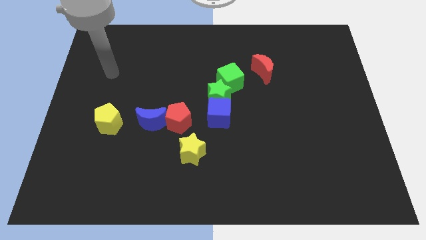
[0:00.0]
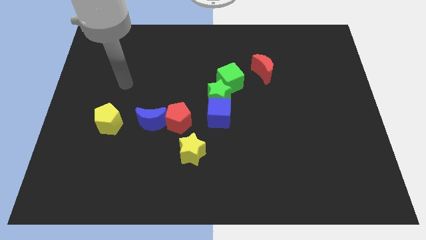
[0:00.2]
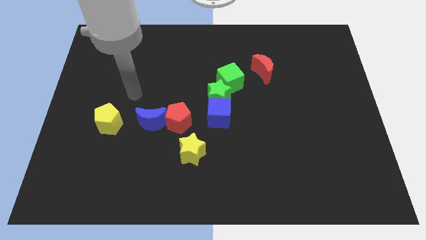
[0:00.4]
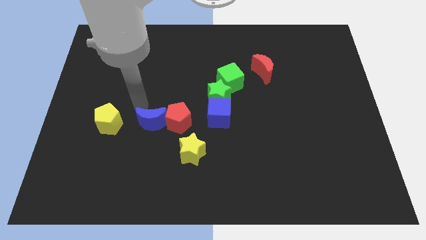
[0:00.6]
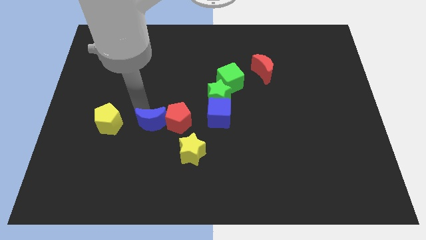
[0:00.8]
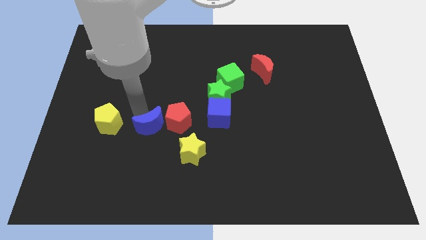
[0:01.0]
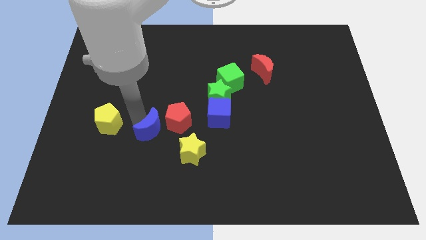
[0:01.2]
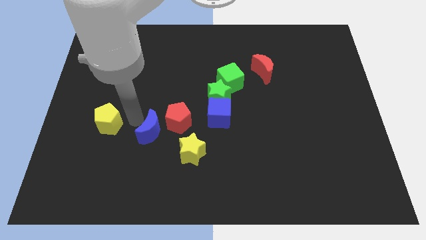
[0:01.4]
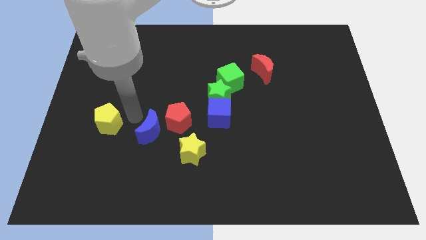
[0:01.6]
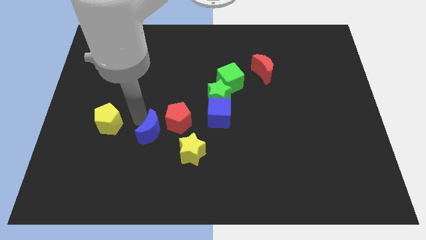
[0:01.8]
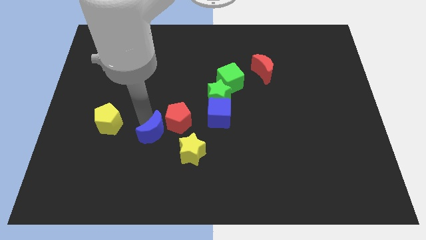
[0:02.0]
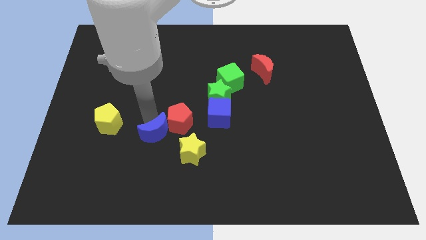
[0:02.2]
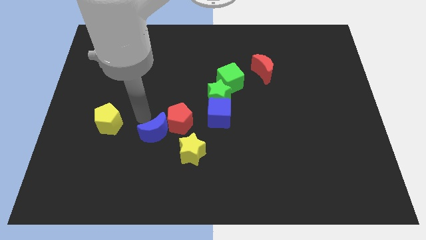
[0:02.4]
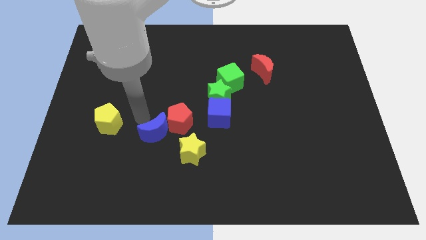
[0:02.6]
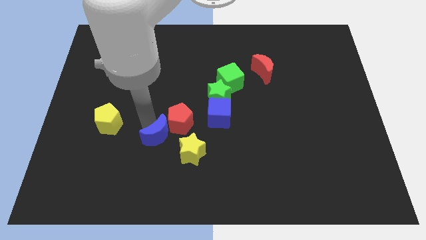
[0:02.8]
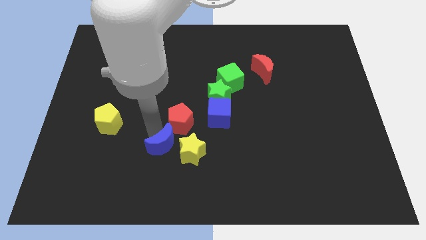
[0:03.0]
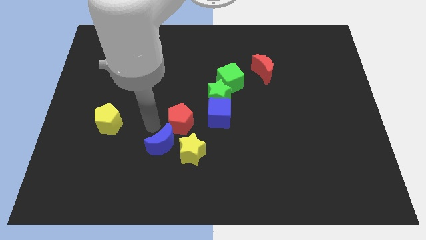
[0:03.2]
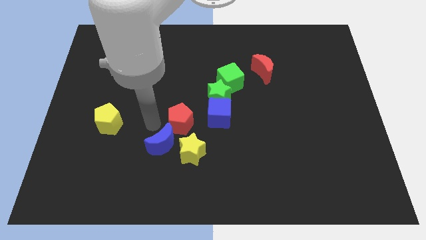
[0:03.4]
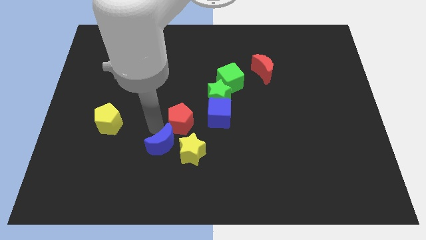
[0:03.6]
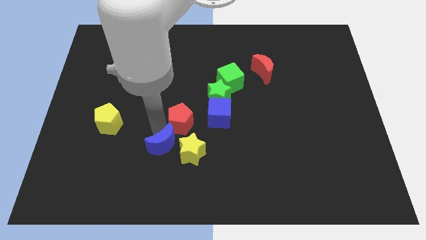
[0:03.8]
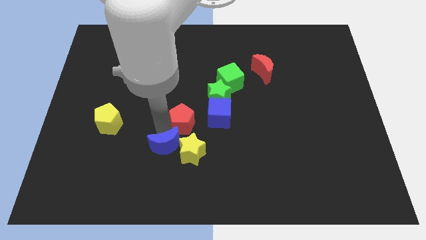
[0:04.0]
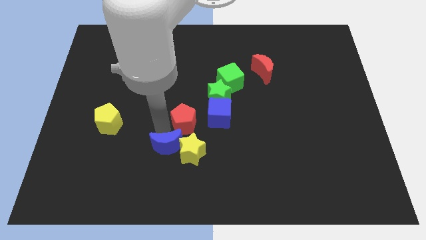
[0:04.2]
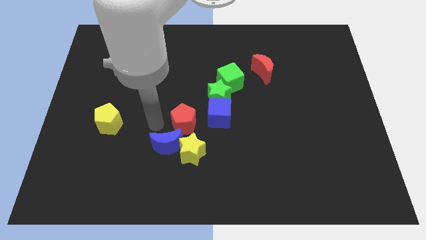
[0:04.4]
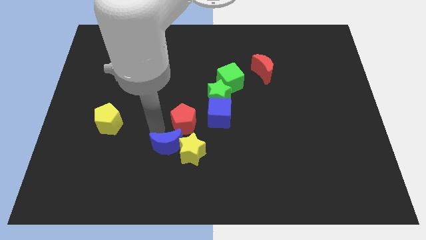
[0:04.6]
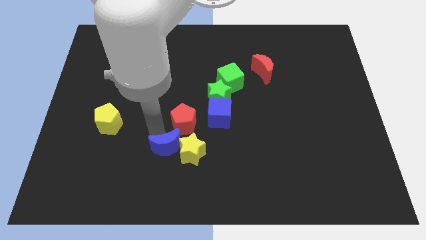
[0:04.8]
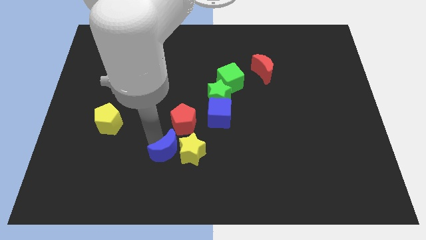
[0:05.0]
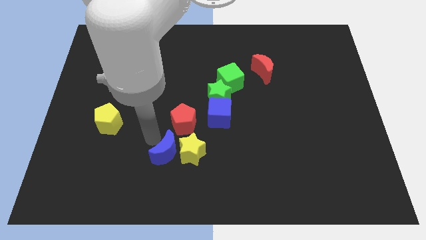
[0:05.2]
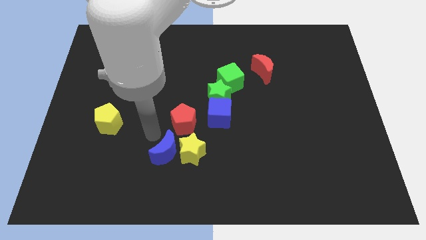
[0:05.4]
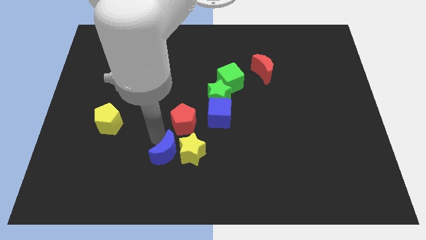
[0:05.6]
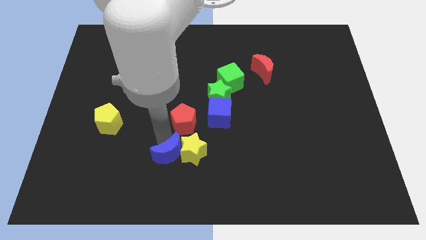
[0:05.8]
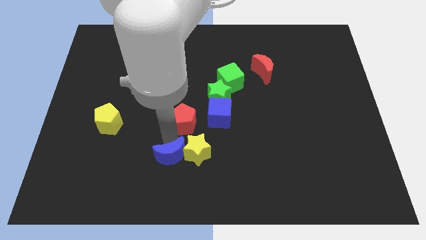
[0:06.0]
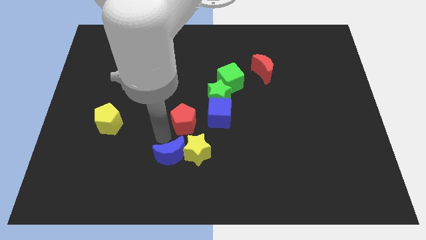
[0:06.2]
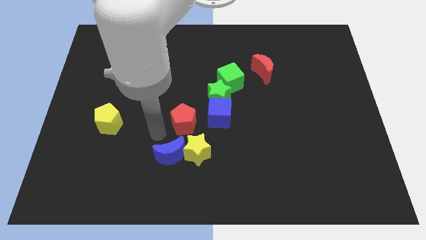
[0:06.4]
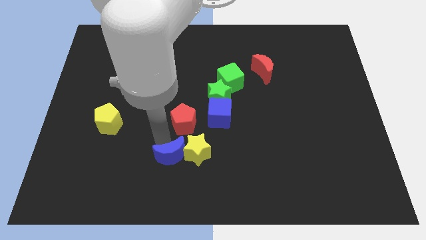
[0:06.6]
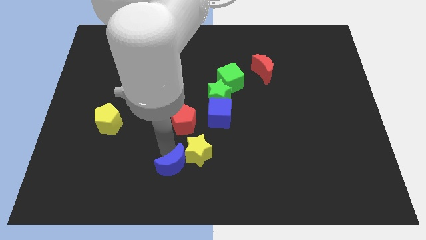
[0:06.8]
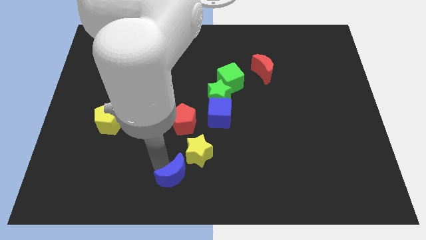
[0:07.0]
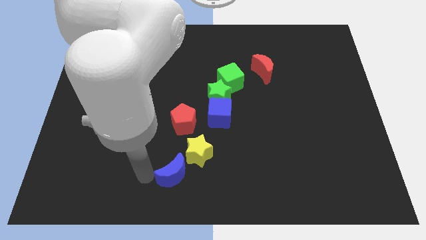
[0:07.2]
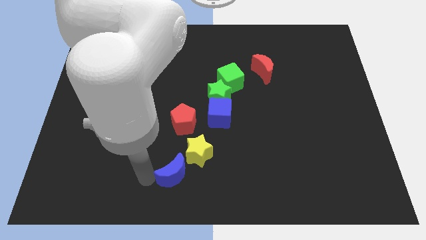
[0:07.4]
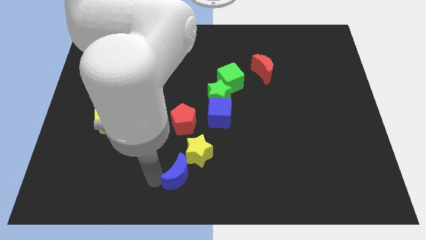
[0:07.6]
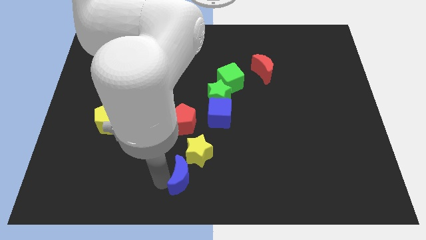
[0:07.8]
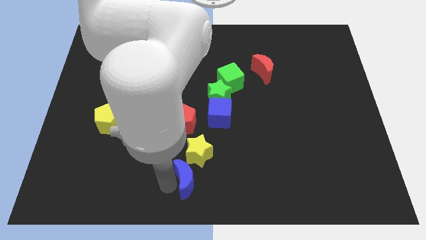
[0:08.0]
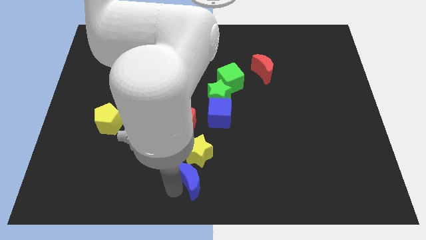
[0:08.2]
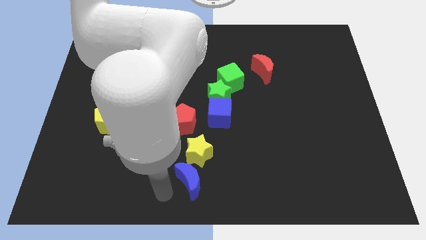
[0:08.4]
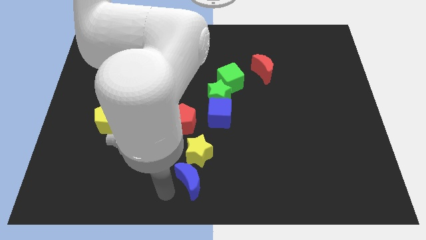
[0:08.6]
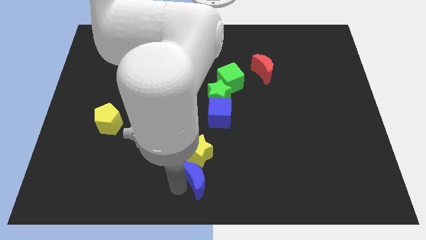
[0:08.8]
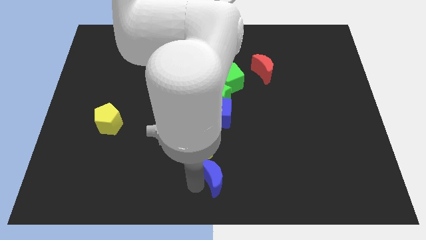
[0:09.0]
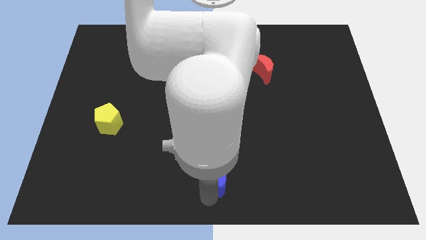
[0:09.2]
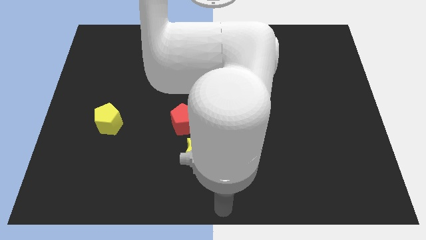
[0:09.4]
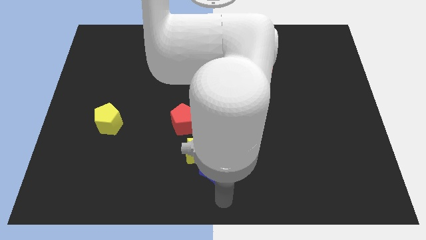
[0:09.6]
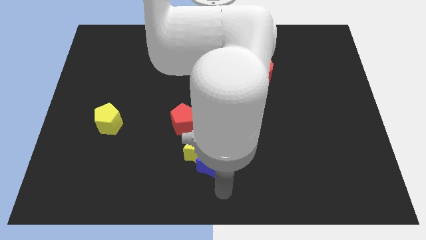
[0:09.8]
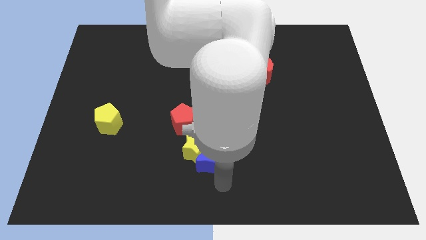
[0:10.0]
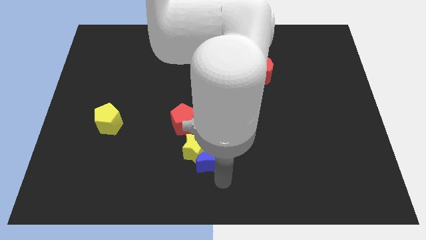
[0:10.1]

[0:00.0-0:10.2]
put the blue moon diagonally down and to the right of the red pentagon

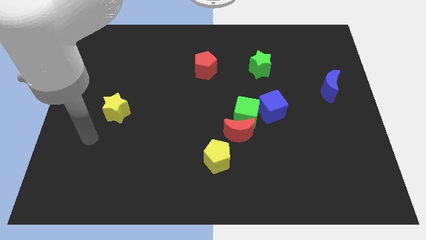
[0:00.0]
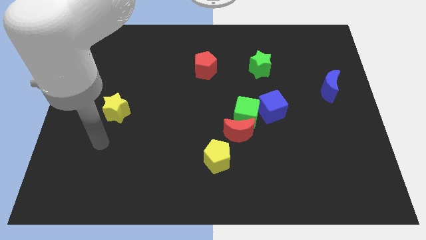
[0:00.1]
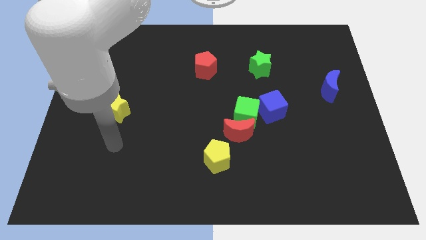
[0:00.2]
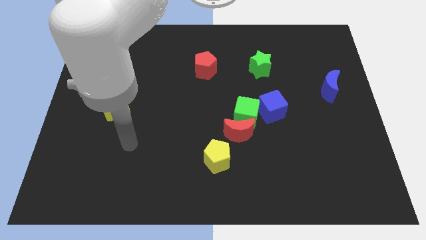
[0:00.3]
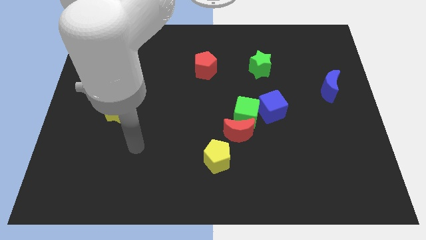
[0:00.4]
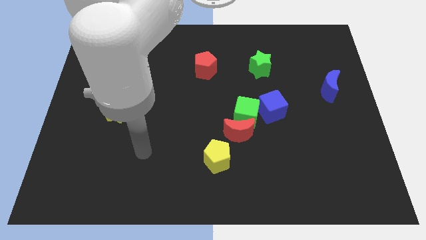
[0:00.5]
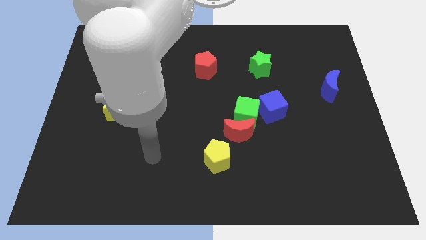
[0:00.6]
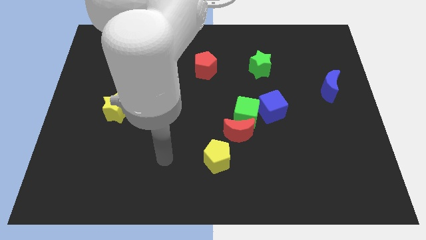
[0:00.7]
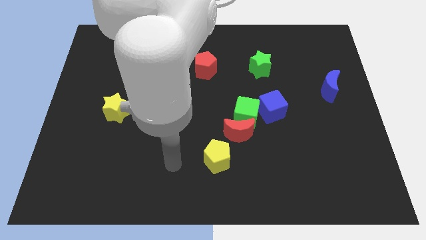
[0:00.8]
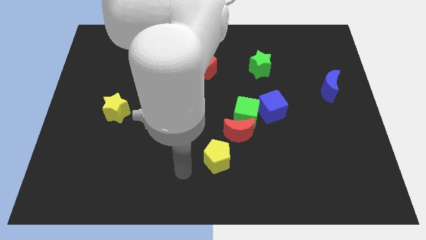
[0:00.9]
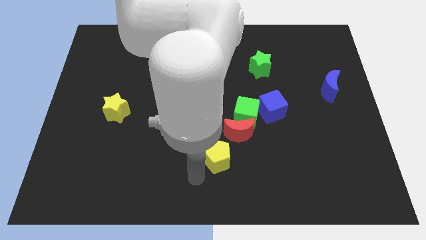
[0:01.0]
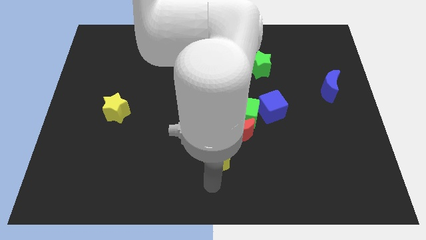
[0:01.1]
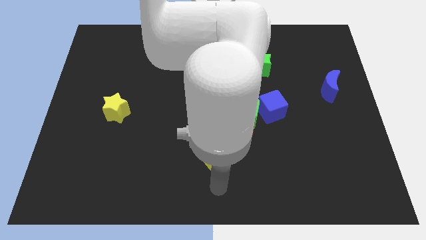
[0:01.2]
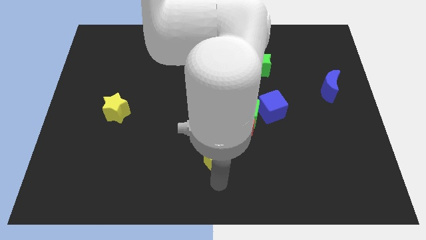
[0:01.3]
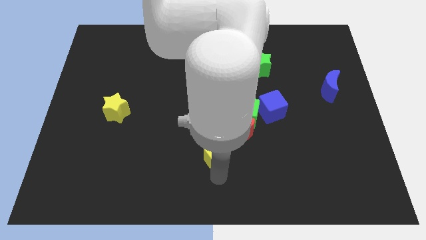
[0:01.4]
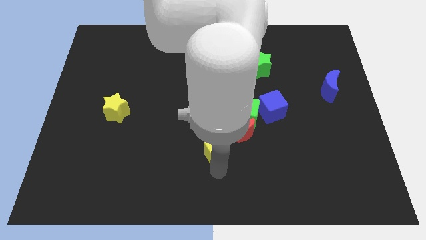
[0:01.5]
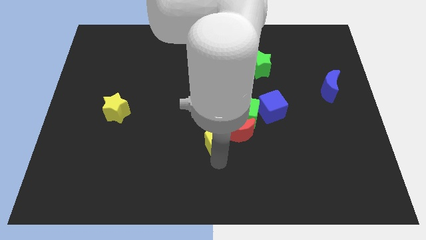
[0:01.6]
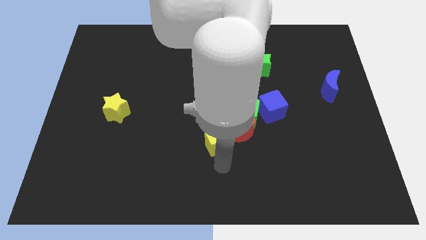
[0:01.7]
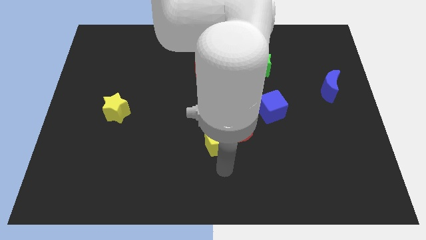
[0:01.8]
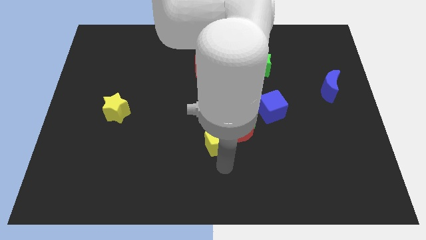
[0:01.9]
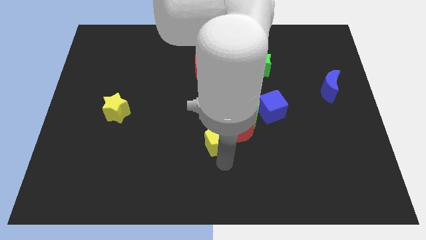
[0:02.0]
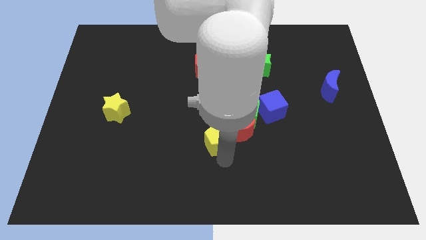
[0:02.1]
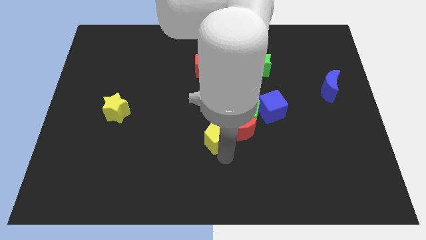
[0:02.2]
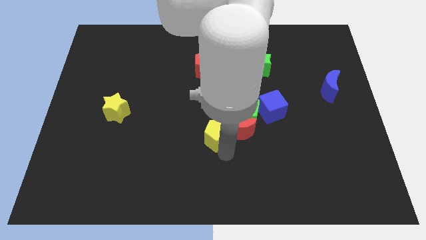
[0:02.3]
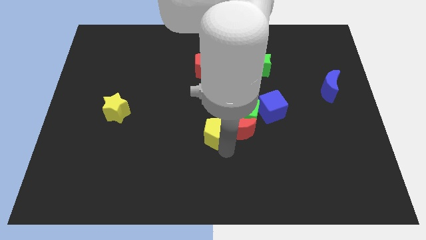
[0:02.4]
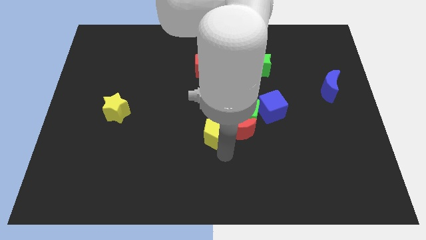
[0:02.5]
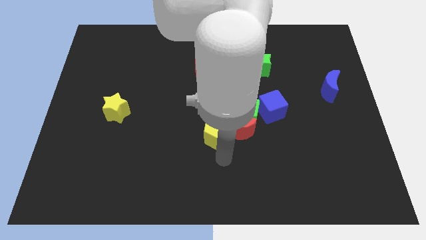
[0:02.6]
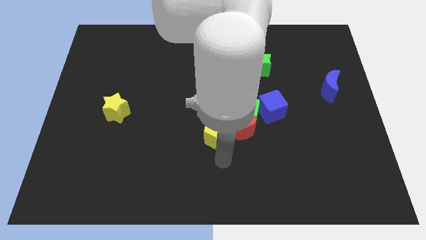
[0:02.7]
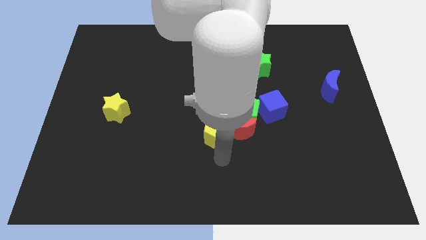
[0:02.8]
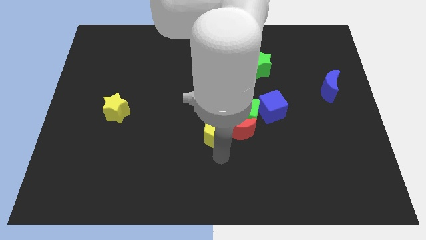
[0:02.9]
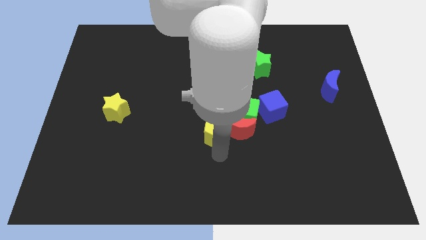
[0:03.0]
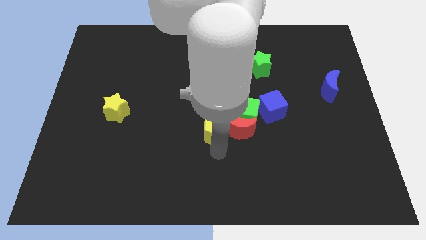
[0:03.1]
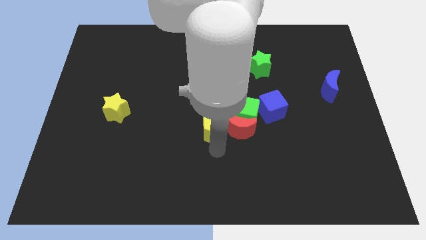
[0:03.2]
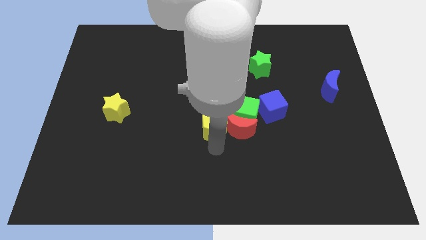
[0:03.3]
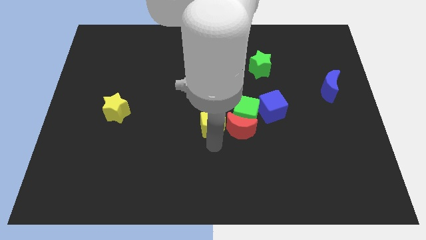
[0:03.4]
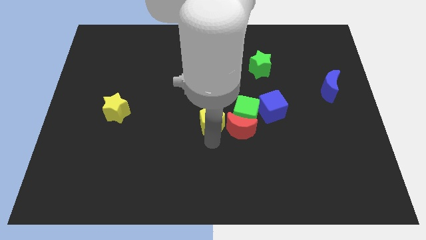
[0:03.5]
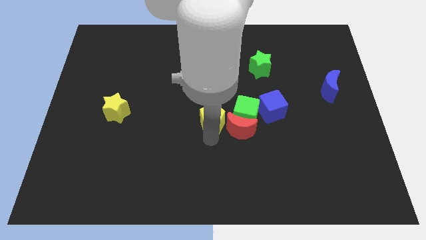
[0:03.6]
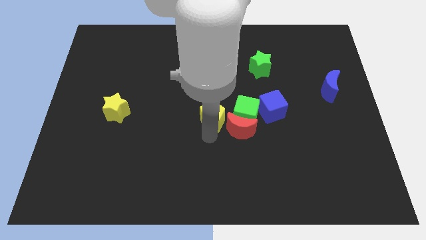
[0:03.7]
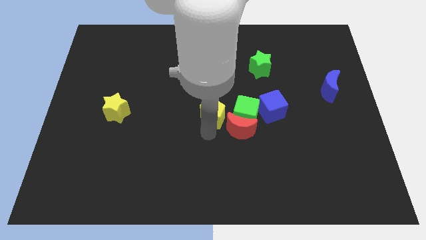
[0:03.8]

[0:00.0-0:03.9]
put the yellow pentagon to the bottom of the red pentagon
